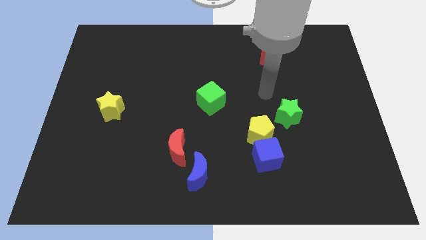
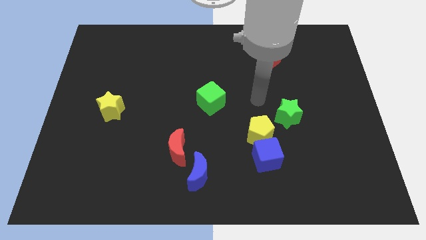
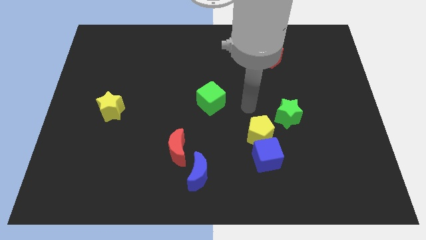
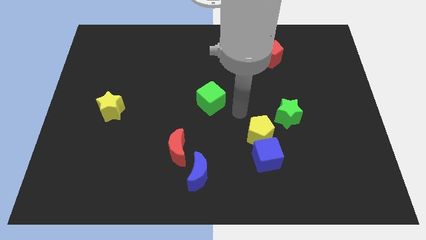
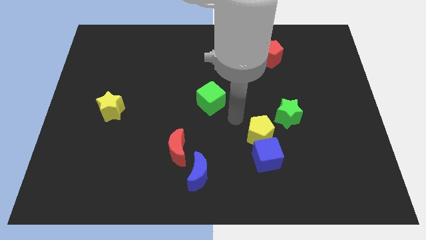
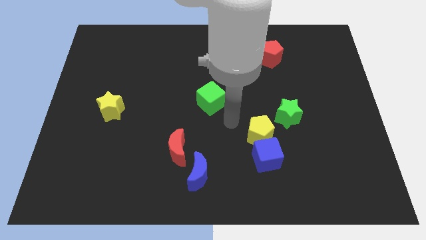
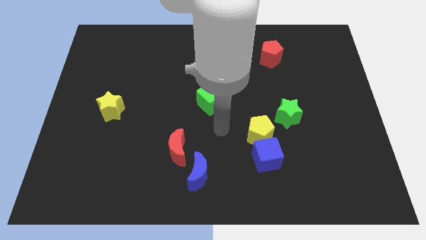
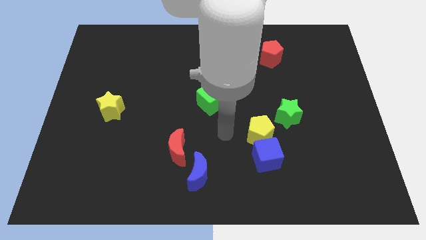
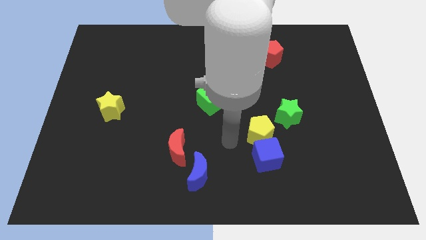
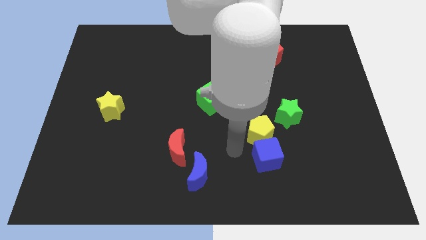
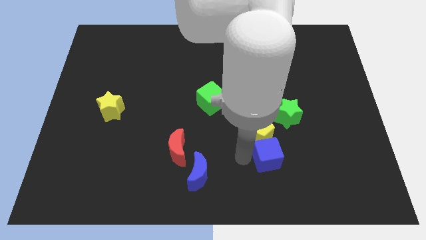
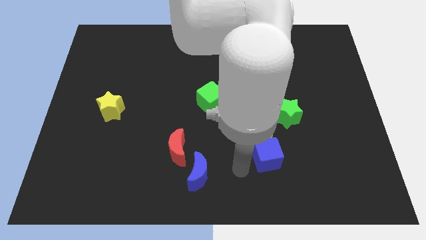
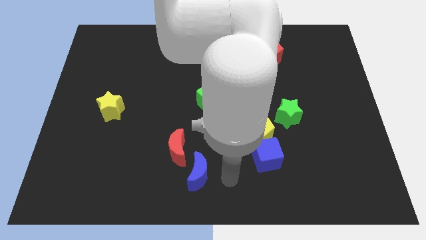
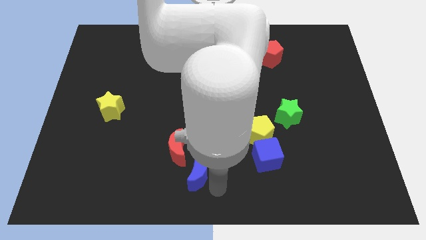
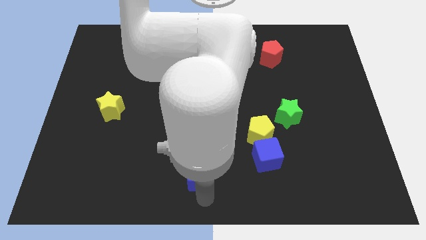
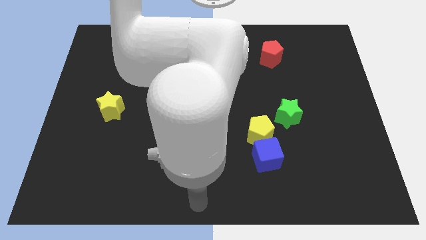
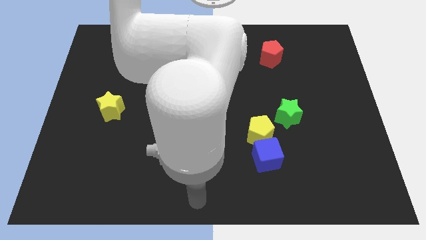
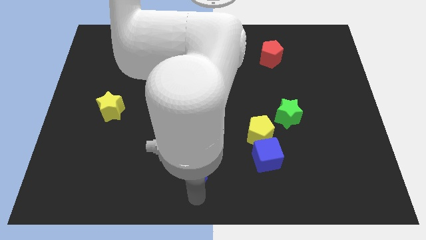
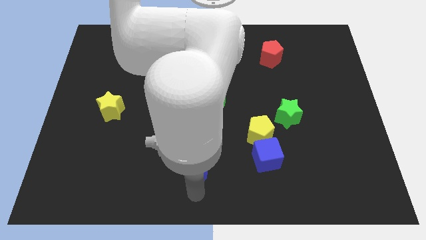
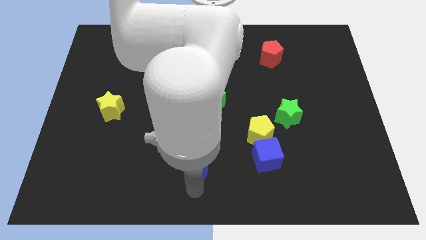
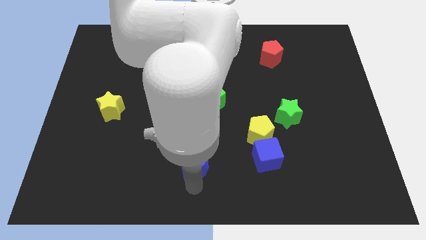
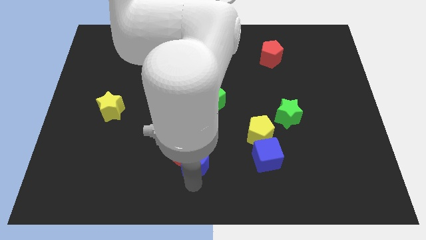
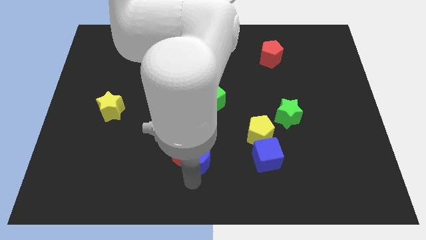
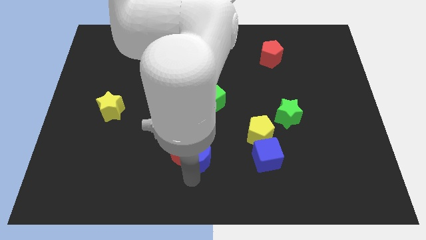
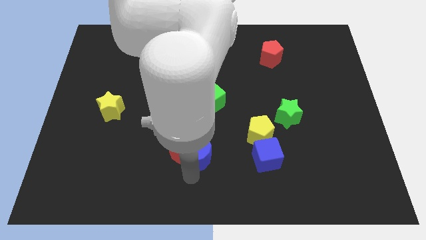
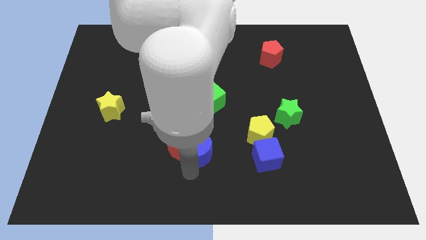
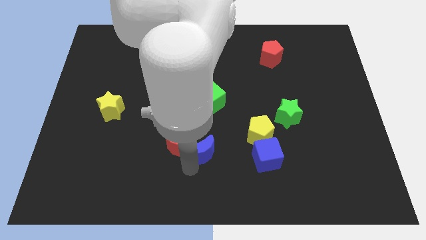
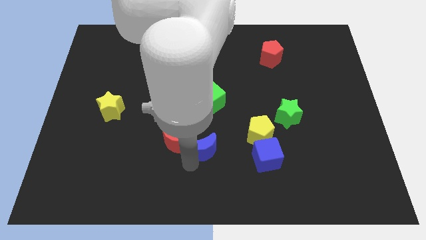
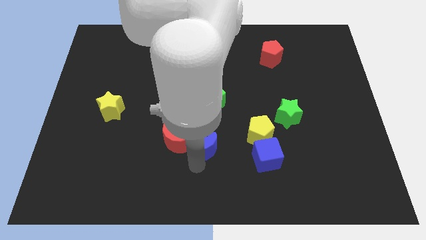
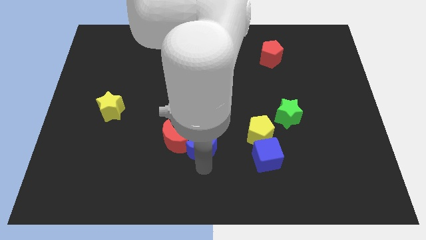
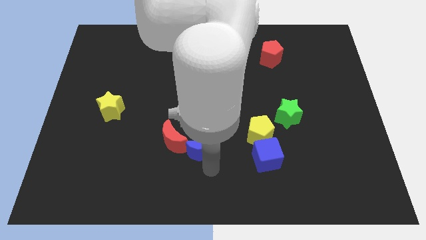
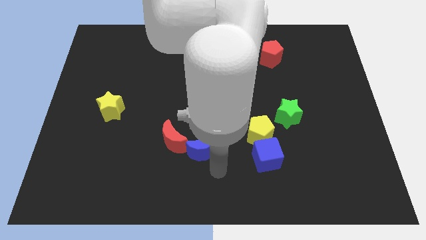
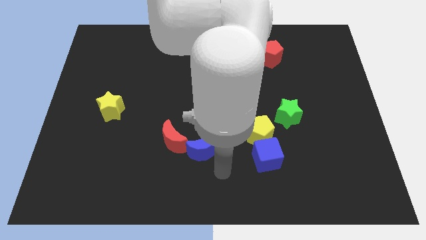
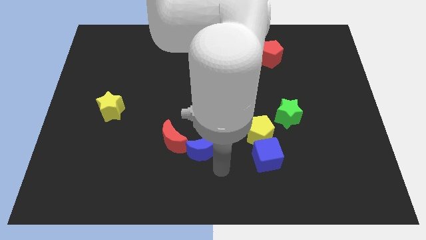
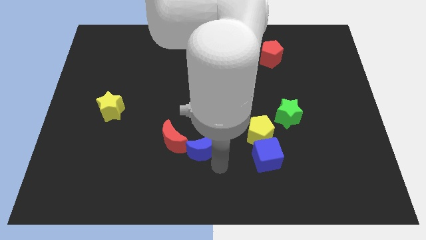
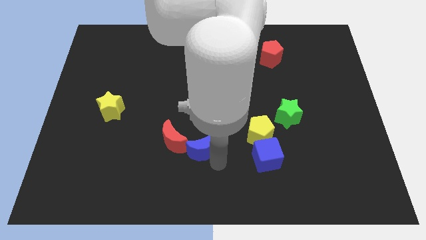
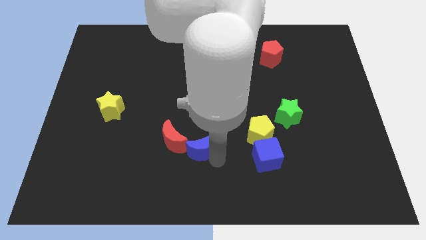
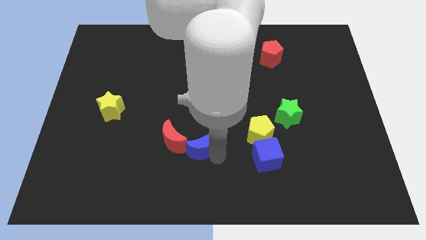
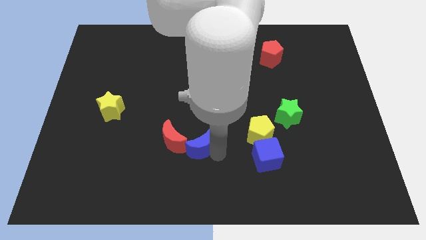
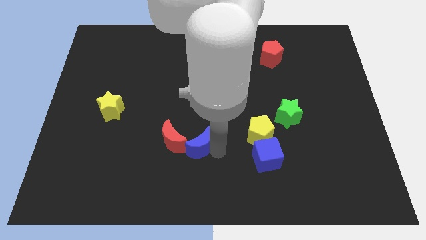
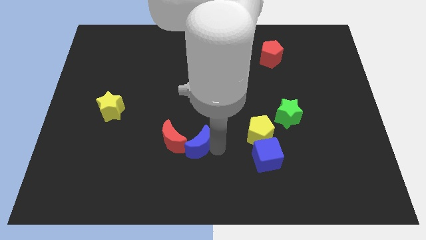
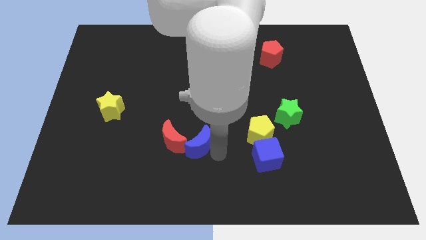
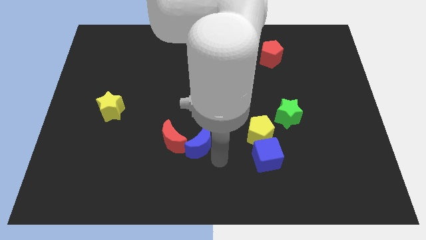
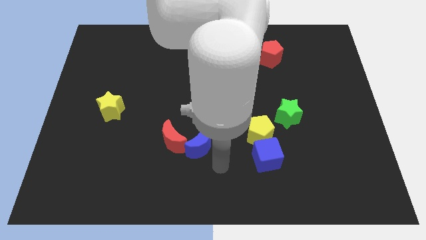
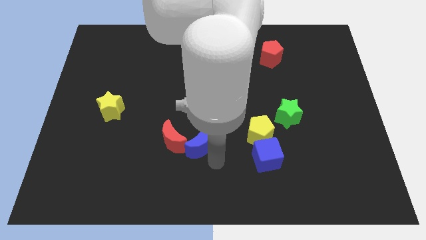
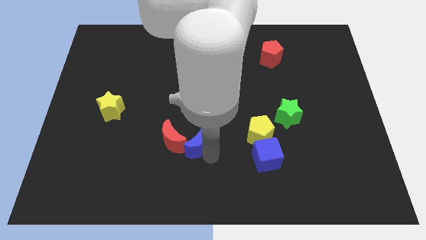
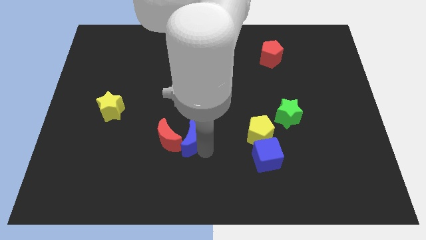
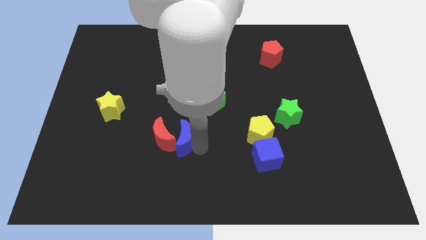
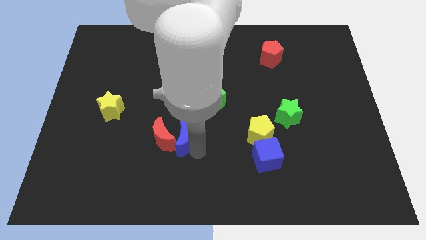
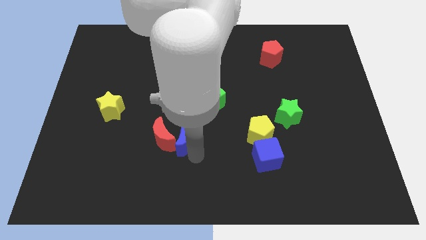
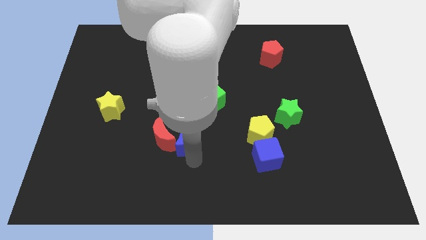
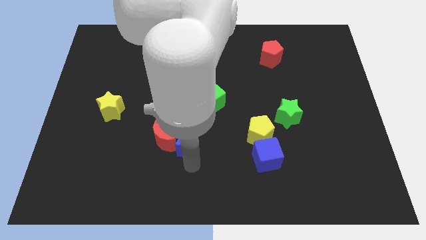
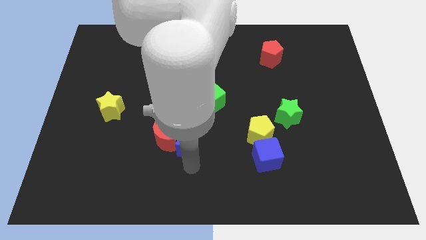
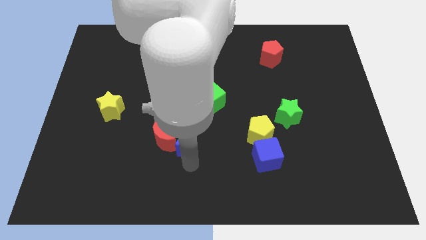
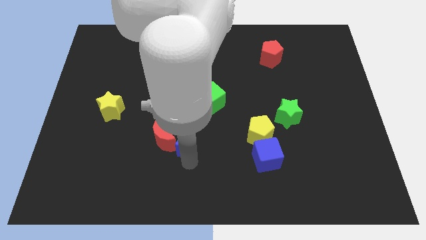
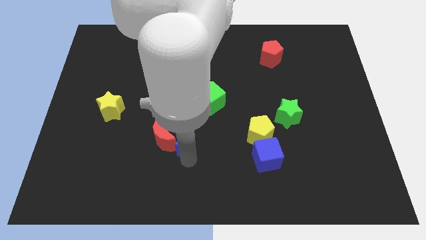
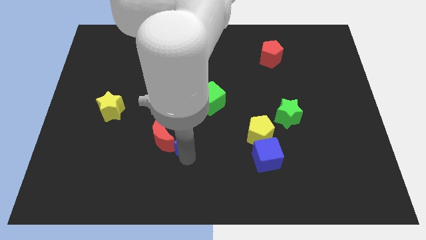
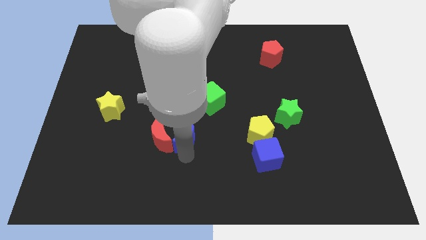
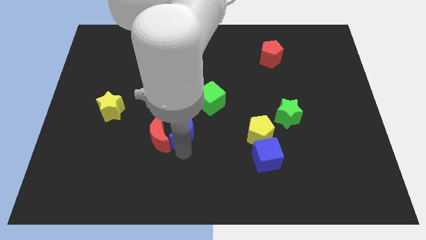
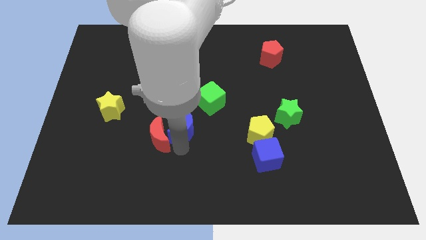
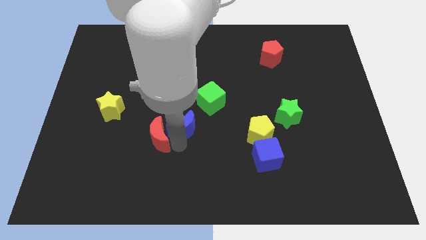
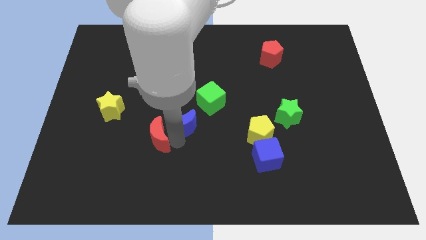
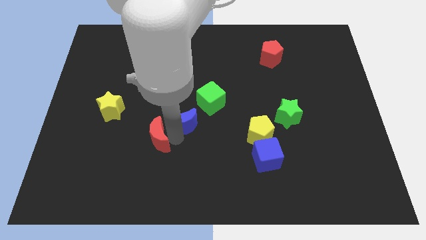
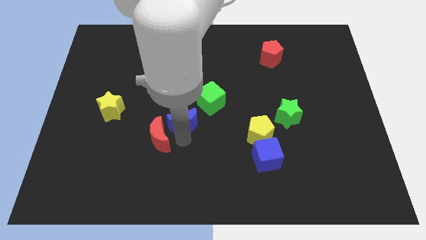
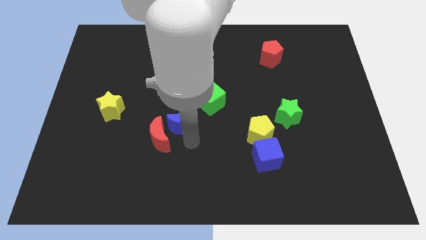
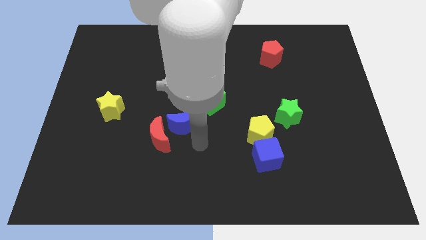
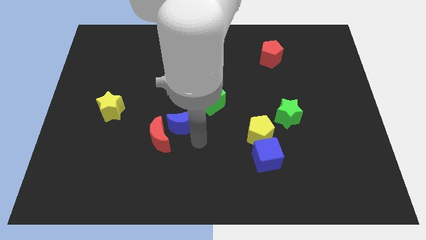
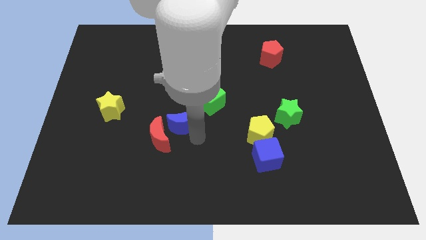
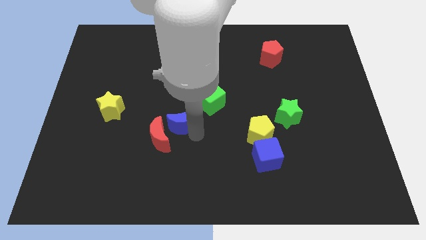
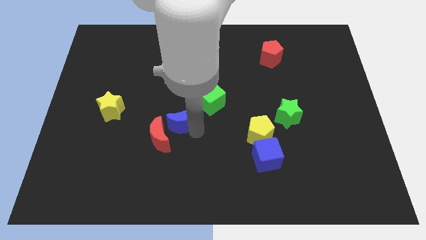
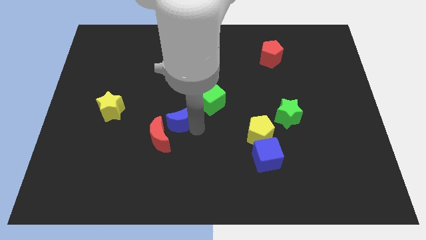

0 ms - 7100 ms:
put the blue moon above the red moon
